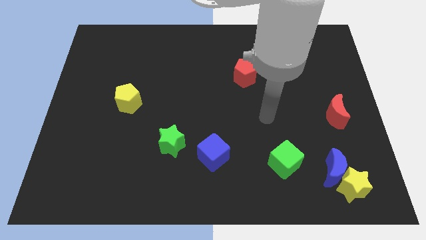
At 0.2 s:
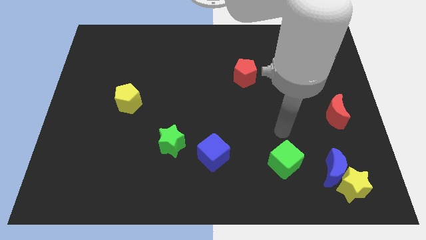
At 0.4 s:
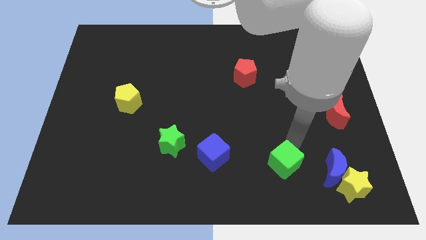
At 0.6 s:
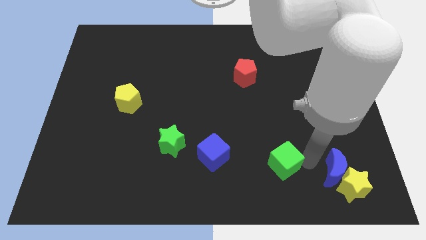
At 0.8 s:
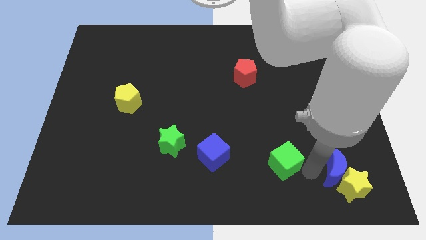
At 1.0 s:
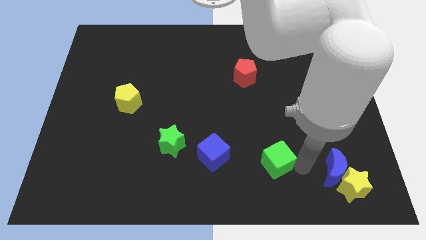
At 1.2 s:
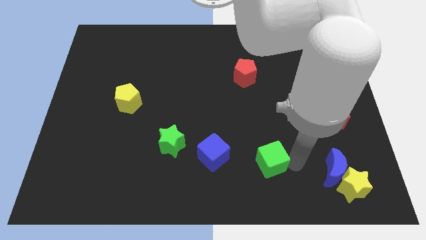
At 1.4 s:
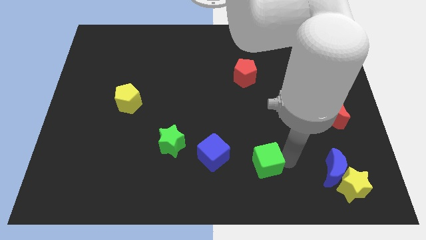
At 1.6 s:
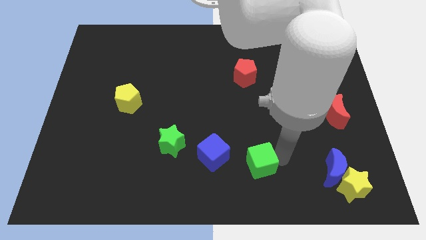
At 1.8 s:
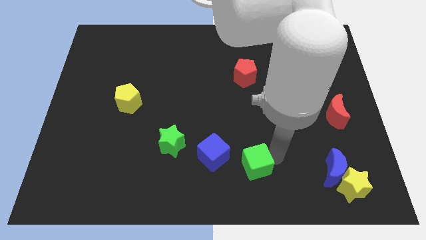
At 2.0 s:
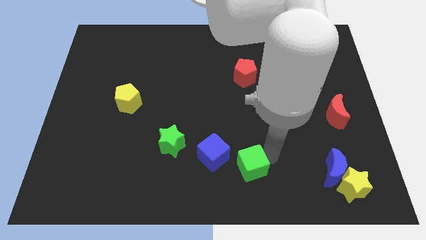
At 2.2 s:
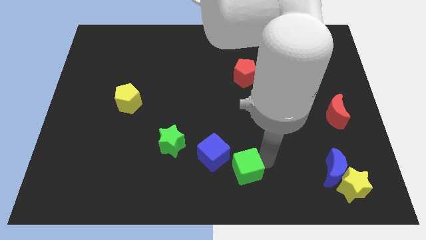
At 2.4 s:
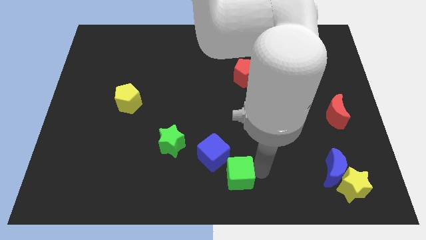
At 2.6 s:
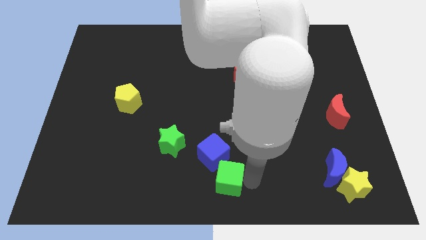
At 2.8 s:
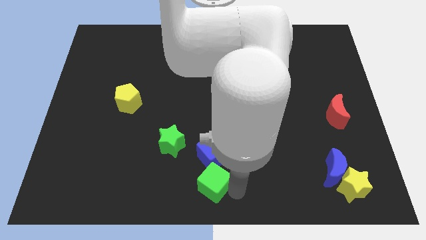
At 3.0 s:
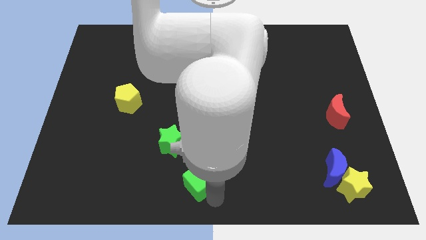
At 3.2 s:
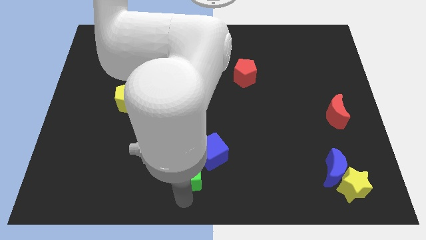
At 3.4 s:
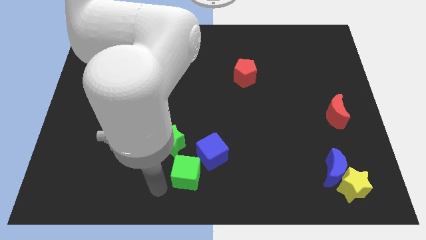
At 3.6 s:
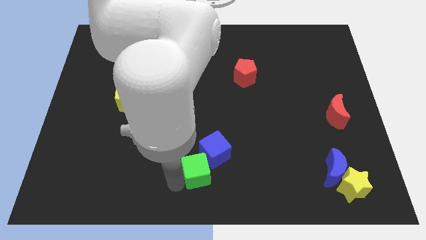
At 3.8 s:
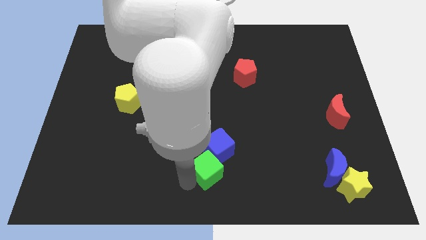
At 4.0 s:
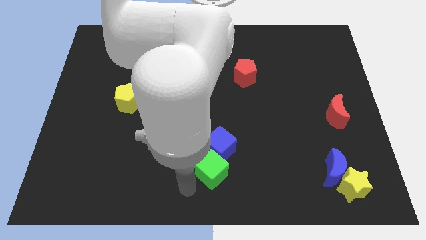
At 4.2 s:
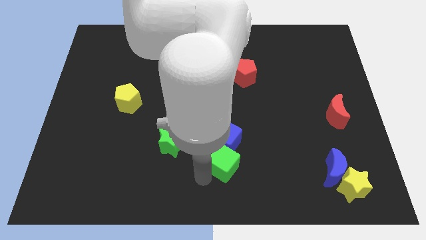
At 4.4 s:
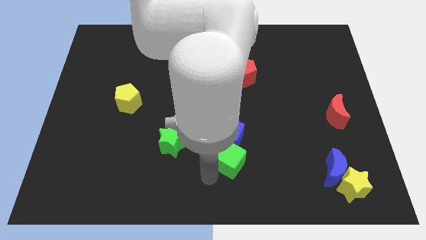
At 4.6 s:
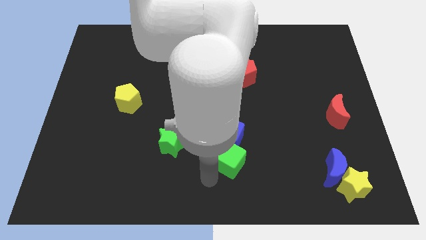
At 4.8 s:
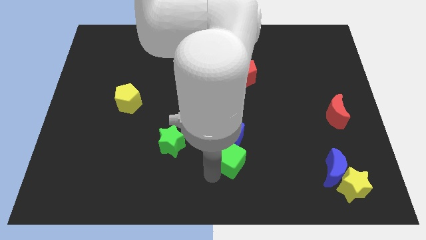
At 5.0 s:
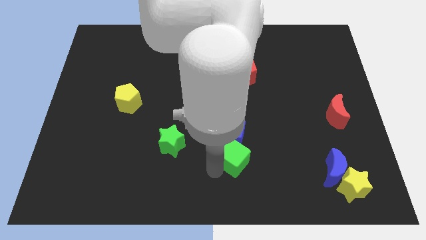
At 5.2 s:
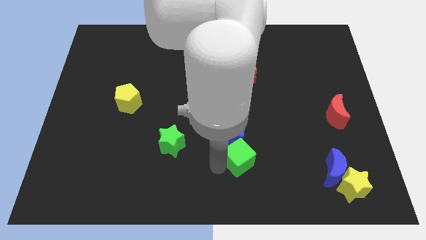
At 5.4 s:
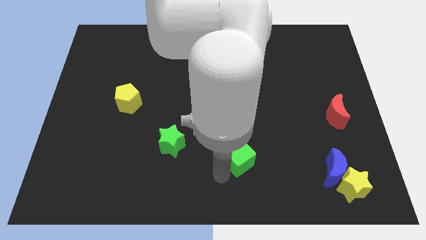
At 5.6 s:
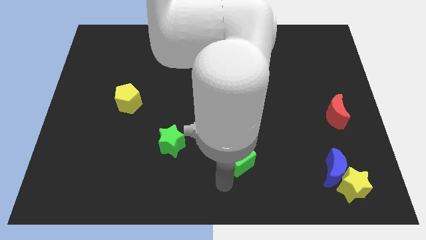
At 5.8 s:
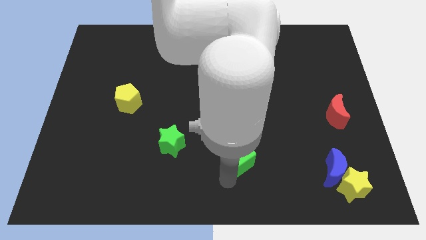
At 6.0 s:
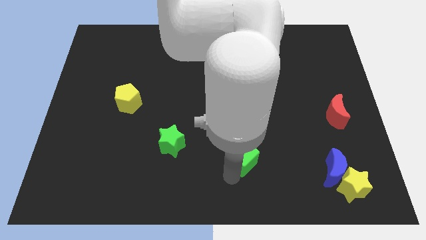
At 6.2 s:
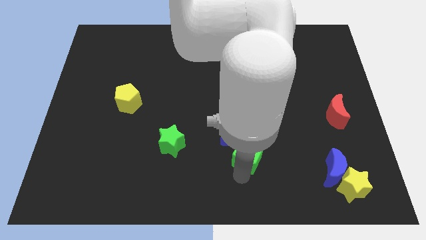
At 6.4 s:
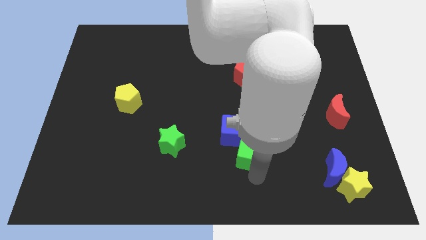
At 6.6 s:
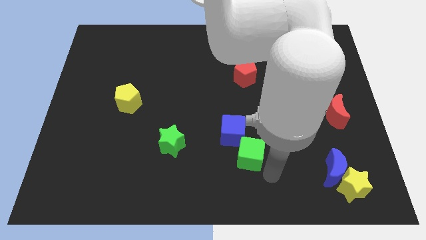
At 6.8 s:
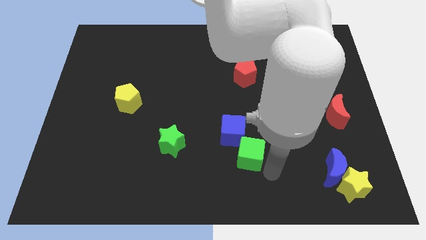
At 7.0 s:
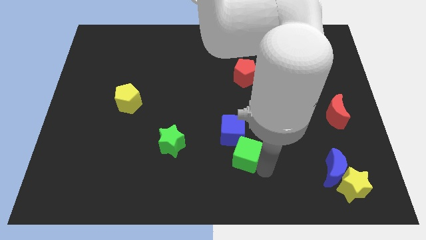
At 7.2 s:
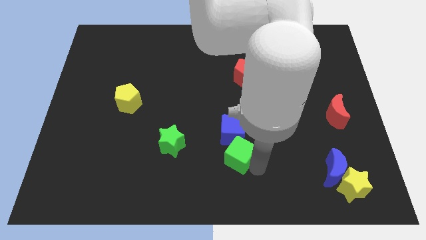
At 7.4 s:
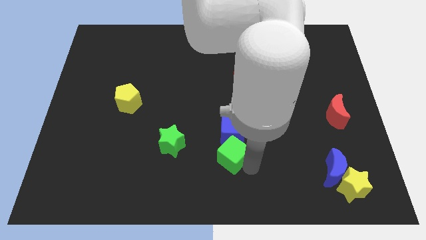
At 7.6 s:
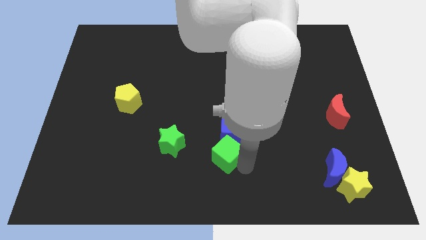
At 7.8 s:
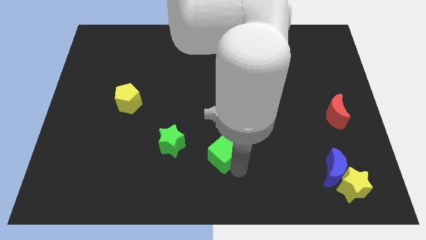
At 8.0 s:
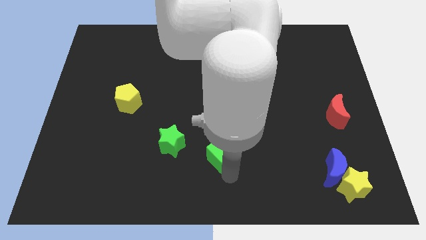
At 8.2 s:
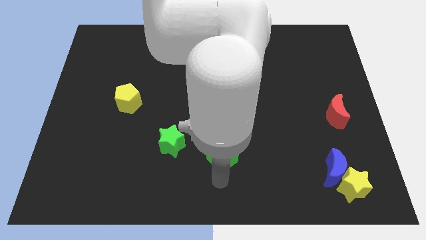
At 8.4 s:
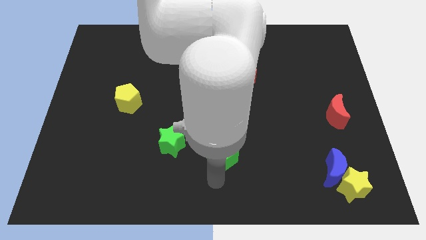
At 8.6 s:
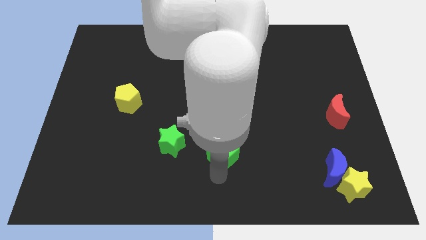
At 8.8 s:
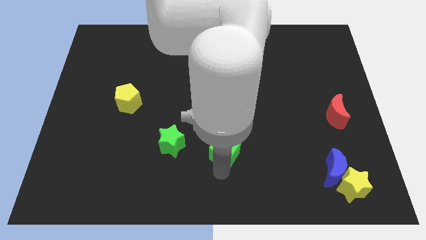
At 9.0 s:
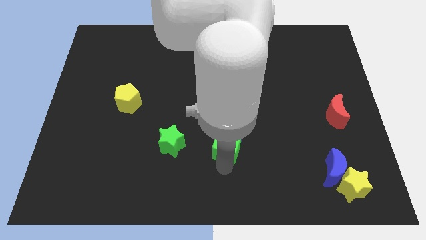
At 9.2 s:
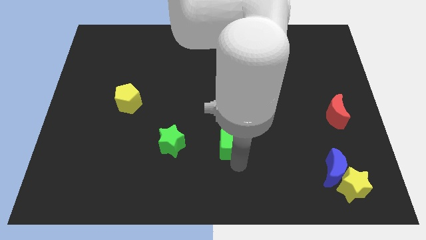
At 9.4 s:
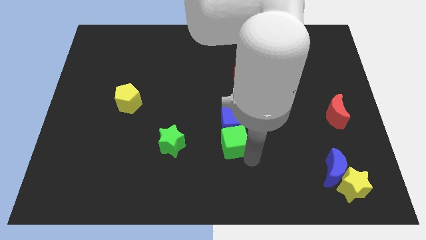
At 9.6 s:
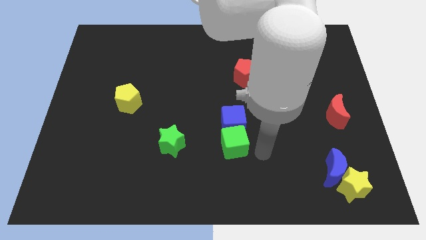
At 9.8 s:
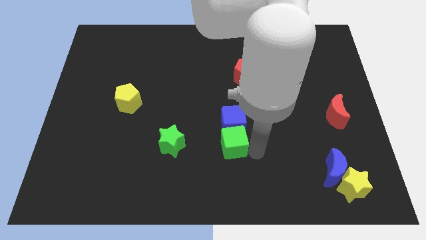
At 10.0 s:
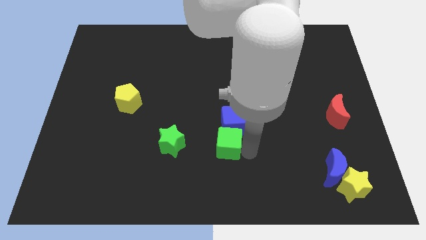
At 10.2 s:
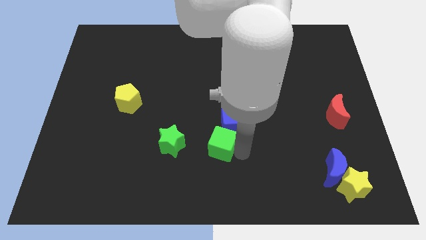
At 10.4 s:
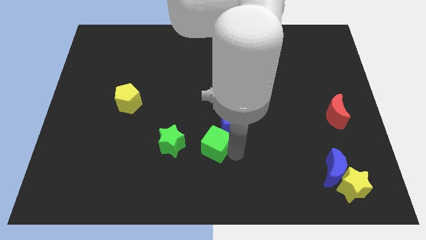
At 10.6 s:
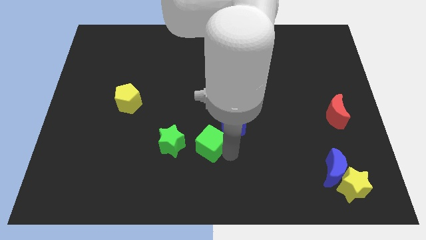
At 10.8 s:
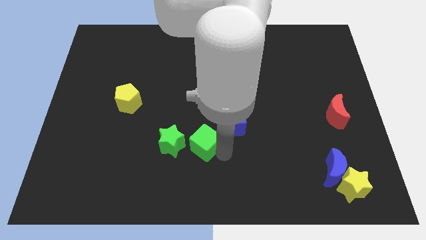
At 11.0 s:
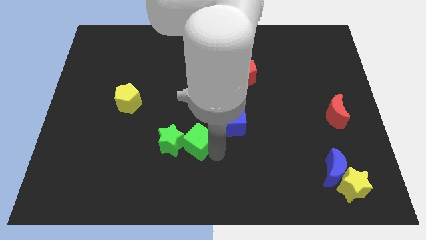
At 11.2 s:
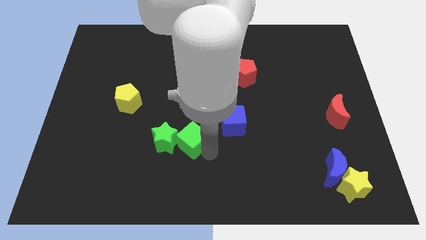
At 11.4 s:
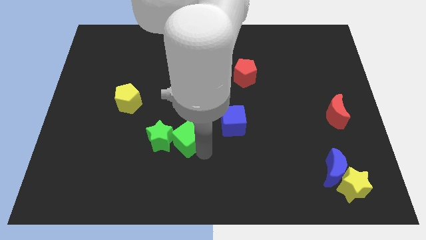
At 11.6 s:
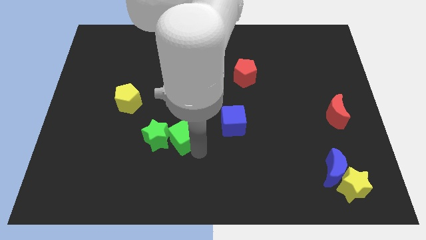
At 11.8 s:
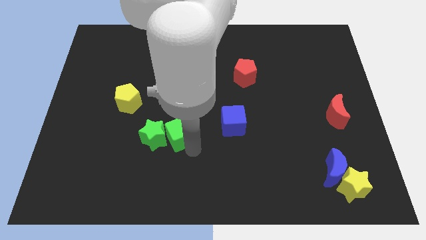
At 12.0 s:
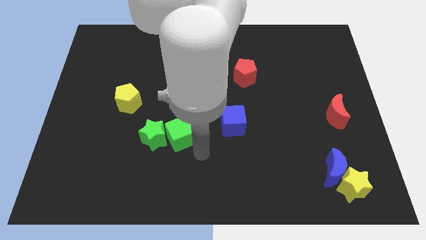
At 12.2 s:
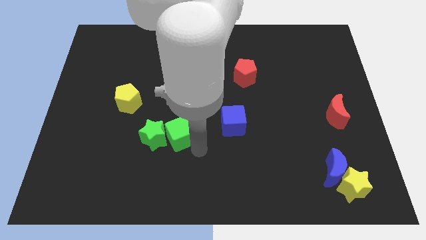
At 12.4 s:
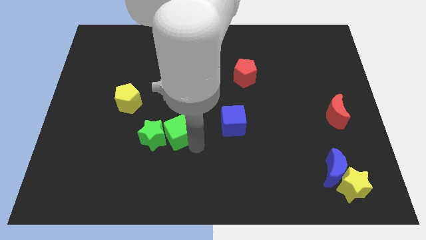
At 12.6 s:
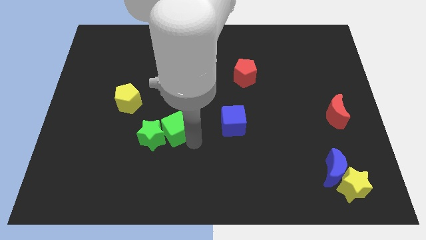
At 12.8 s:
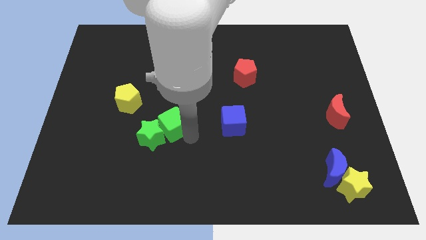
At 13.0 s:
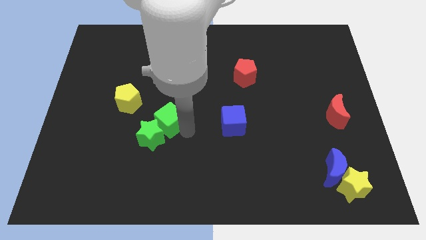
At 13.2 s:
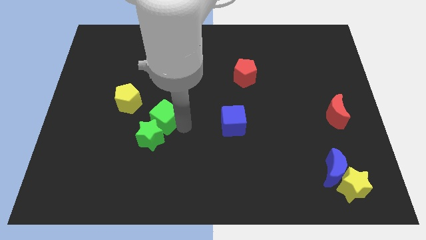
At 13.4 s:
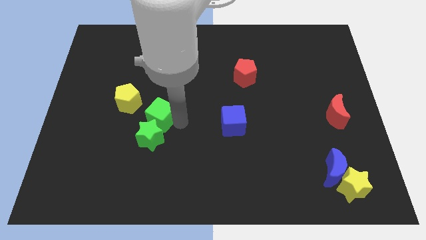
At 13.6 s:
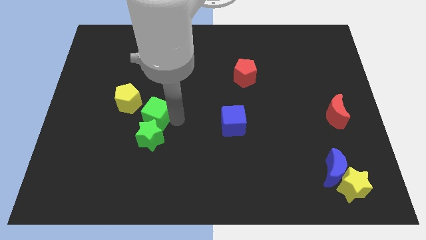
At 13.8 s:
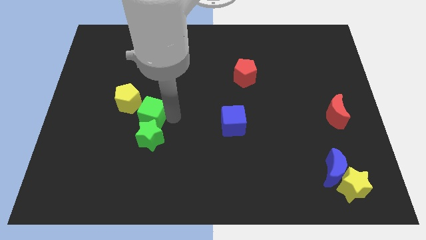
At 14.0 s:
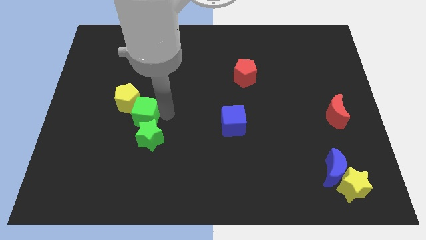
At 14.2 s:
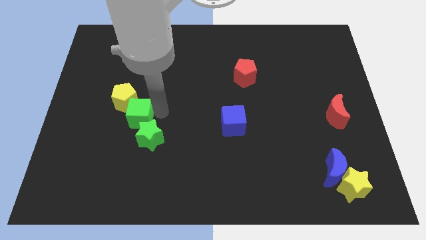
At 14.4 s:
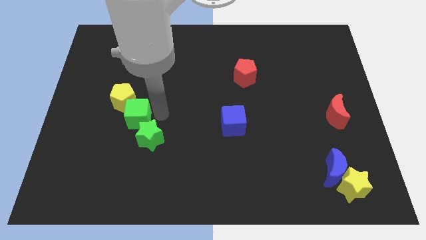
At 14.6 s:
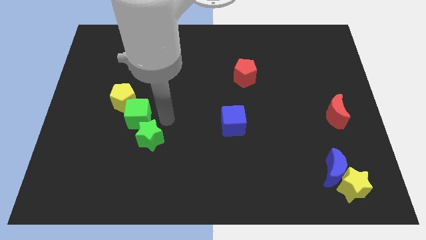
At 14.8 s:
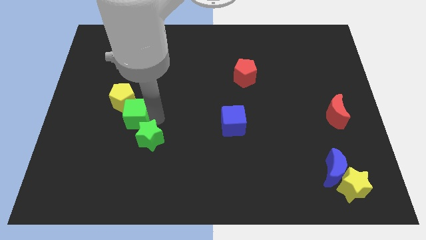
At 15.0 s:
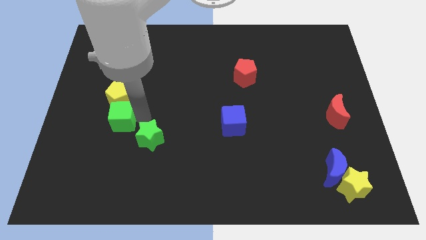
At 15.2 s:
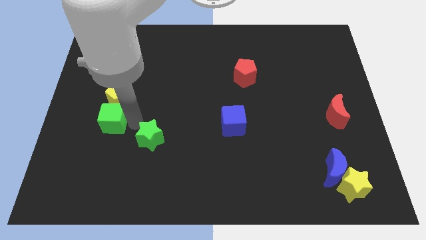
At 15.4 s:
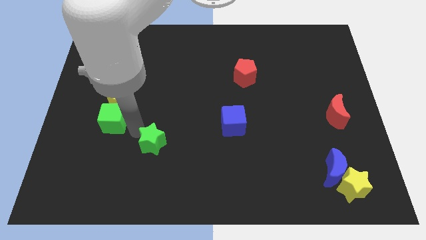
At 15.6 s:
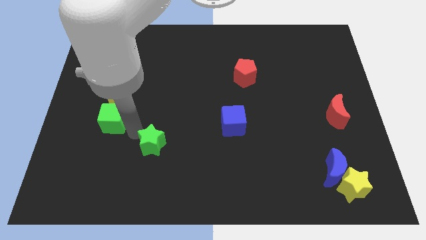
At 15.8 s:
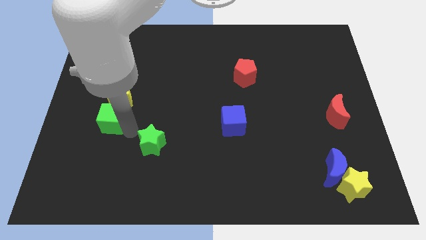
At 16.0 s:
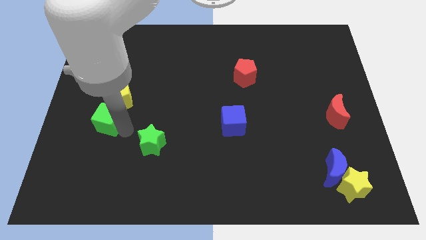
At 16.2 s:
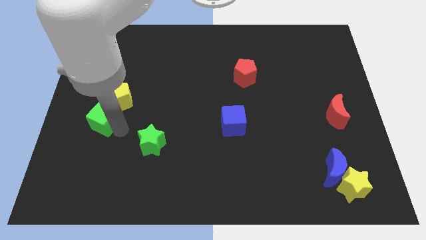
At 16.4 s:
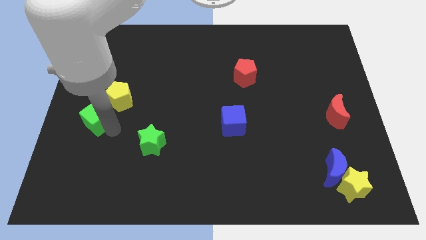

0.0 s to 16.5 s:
move the green cube to the left side
